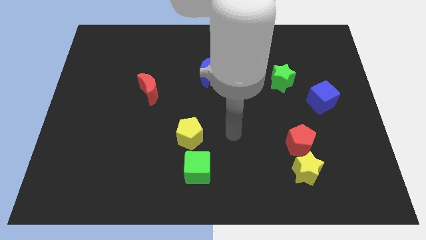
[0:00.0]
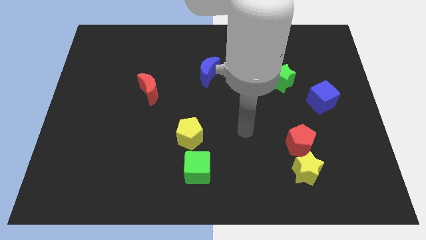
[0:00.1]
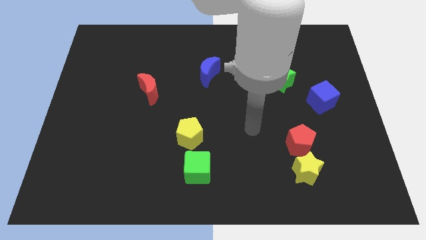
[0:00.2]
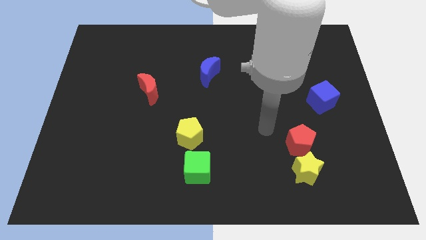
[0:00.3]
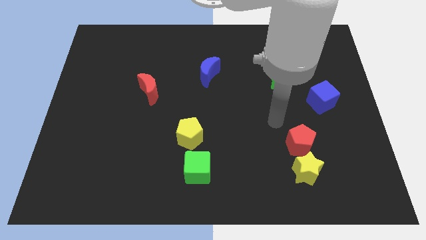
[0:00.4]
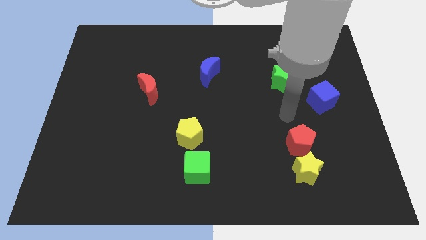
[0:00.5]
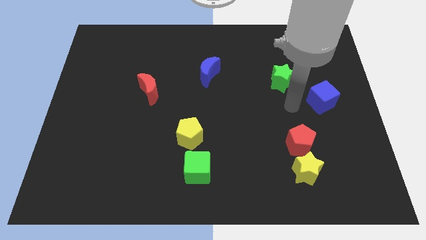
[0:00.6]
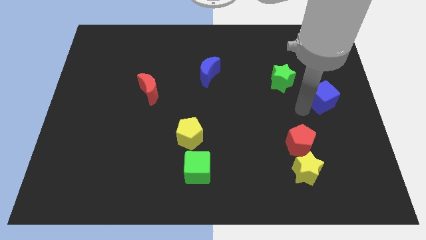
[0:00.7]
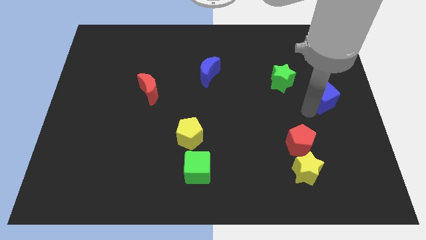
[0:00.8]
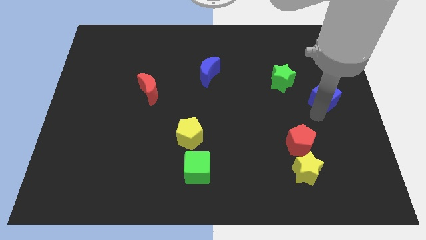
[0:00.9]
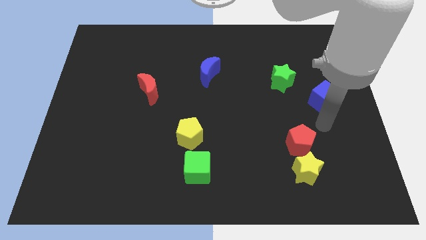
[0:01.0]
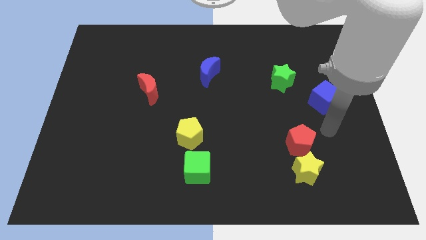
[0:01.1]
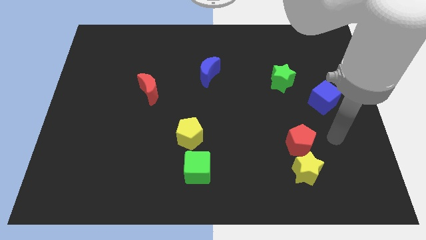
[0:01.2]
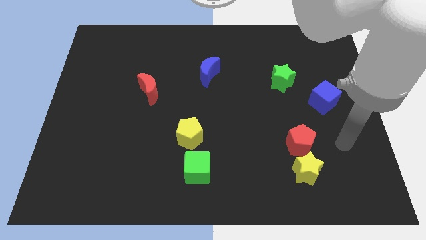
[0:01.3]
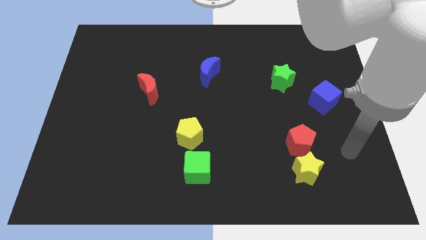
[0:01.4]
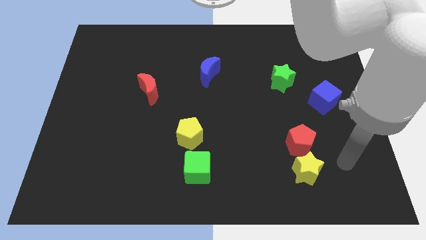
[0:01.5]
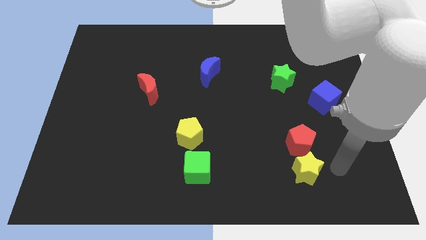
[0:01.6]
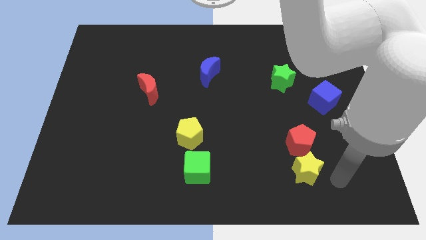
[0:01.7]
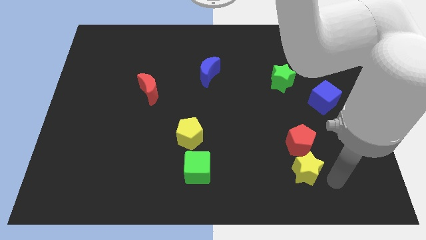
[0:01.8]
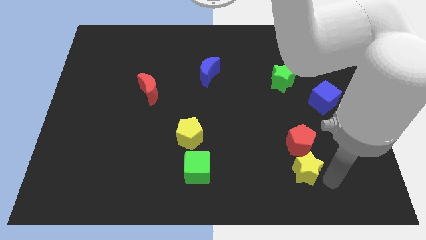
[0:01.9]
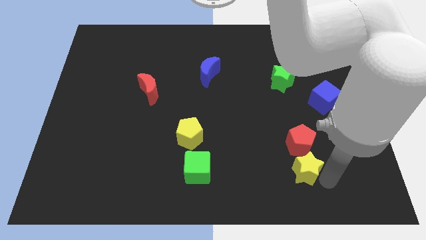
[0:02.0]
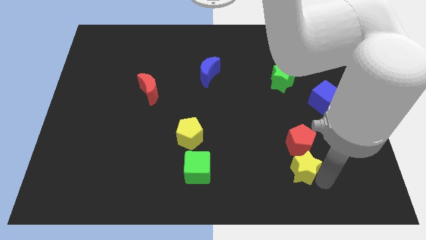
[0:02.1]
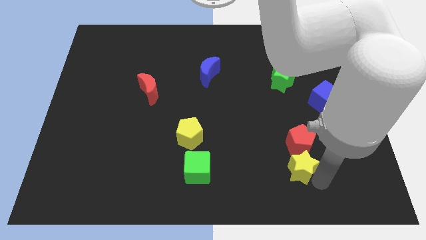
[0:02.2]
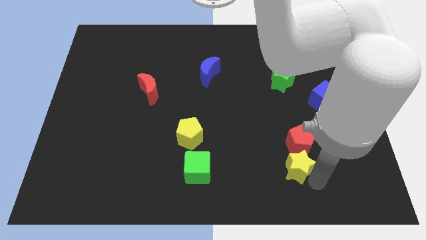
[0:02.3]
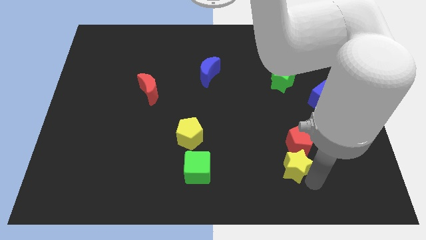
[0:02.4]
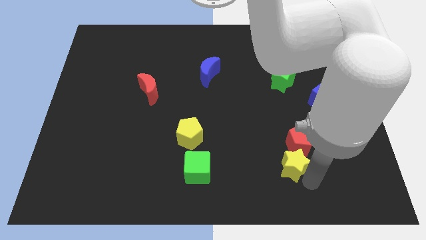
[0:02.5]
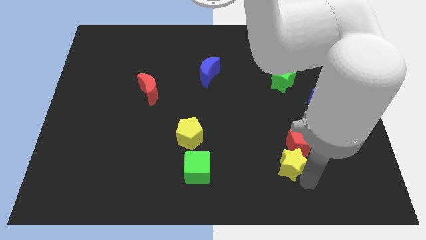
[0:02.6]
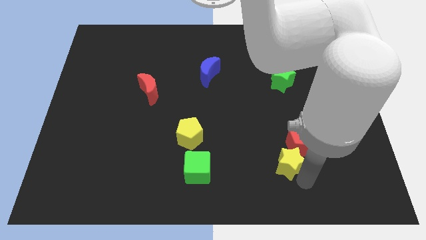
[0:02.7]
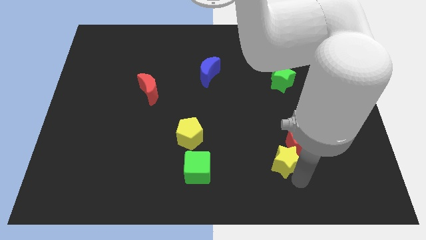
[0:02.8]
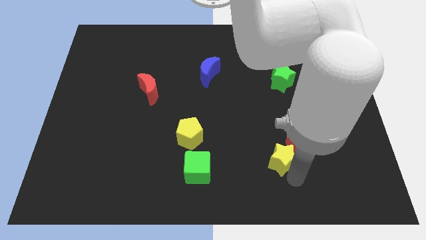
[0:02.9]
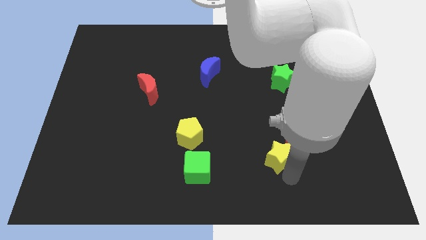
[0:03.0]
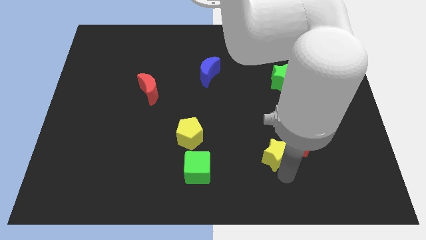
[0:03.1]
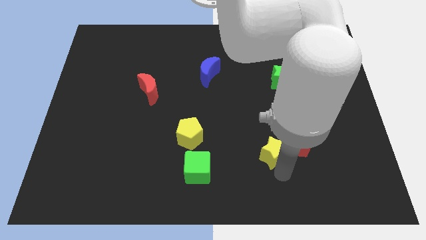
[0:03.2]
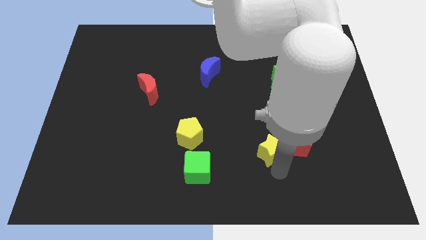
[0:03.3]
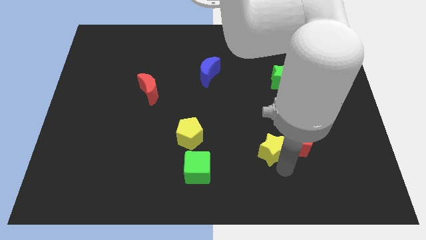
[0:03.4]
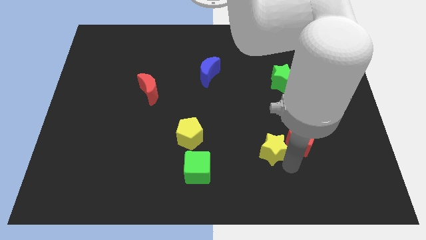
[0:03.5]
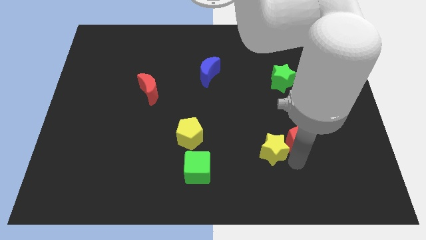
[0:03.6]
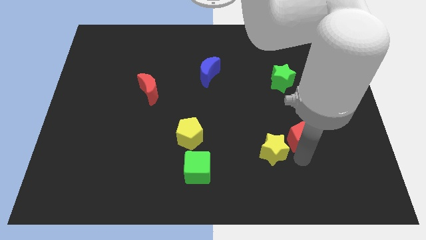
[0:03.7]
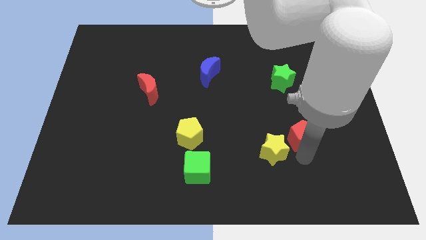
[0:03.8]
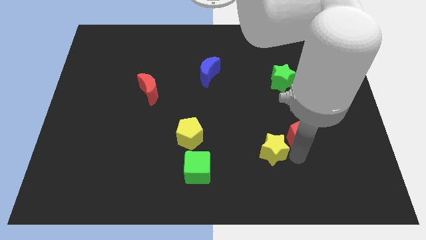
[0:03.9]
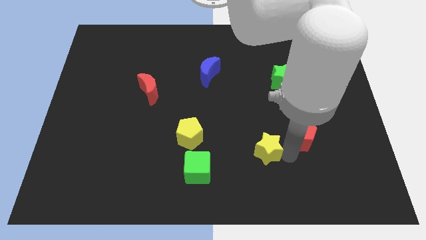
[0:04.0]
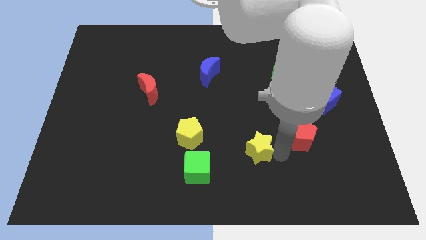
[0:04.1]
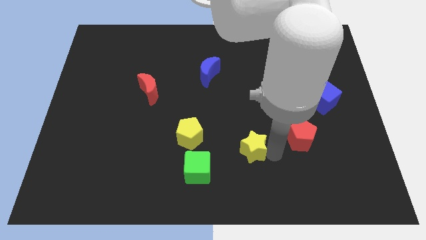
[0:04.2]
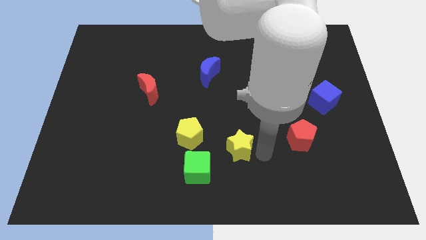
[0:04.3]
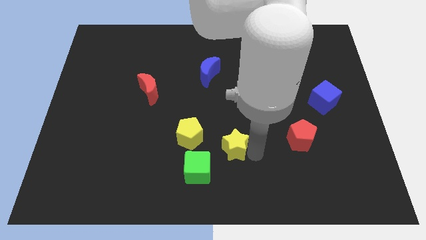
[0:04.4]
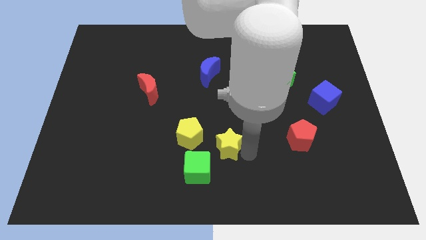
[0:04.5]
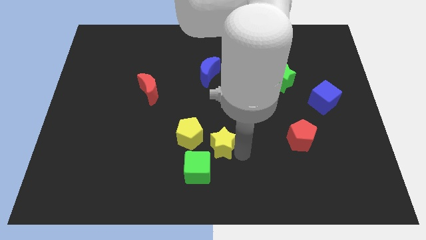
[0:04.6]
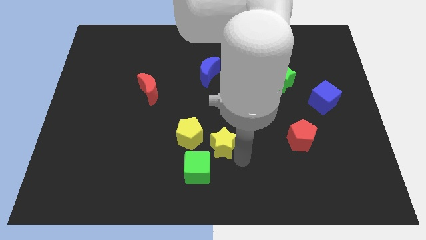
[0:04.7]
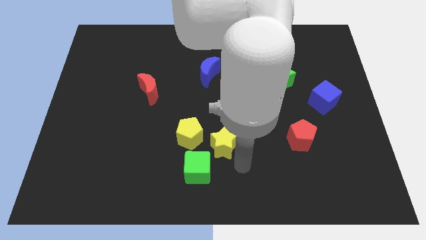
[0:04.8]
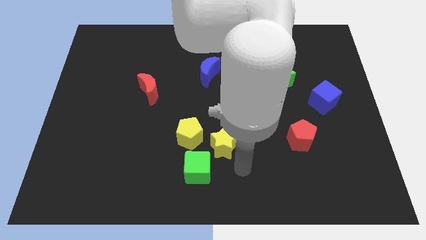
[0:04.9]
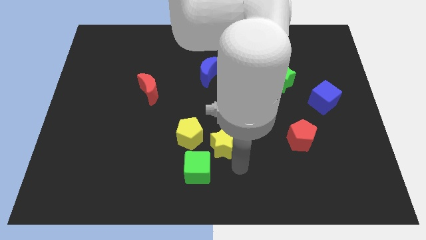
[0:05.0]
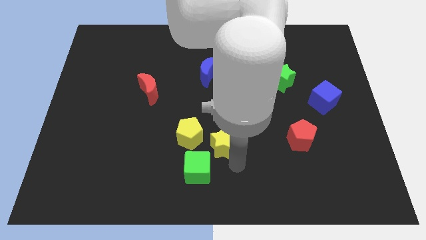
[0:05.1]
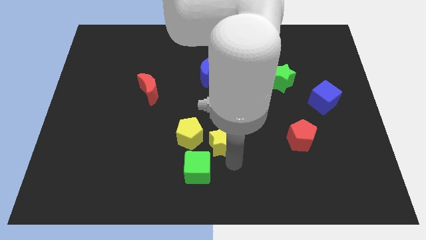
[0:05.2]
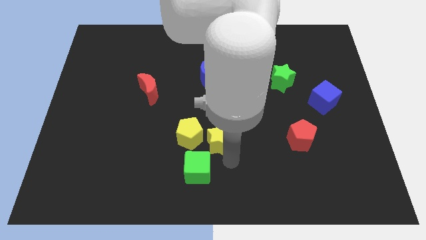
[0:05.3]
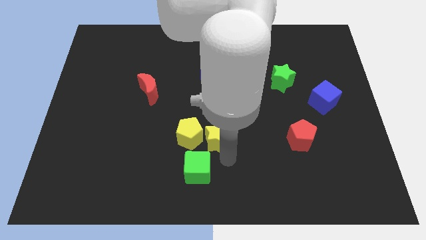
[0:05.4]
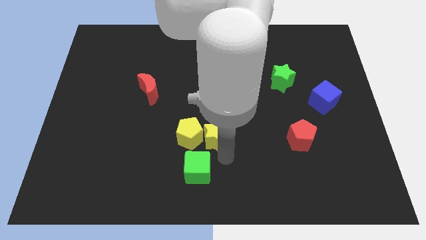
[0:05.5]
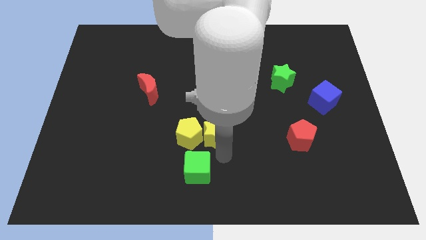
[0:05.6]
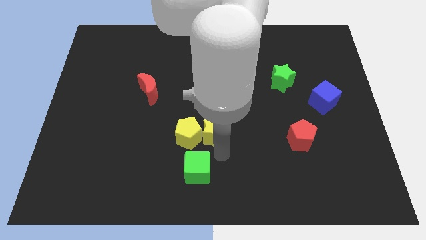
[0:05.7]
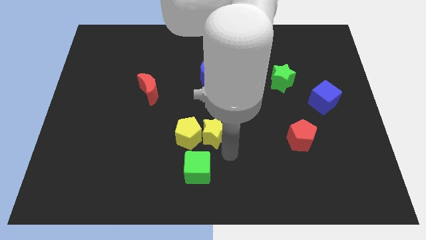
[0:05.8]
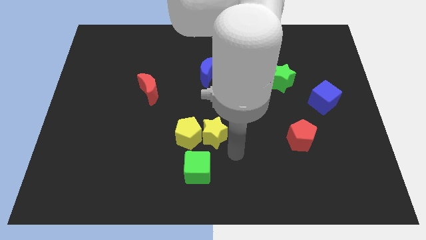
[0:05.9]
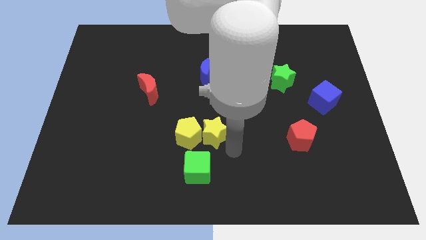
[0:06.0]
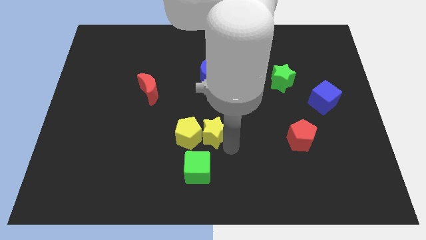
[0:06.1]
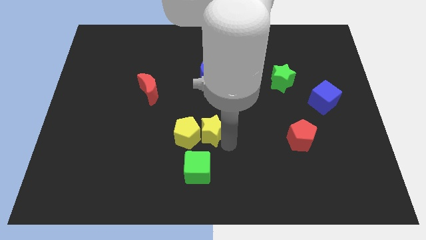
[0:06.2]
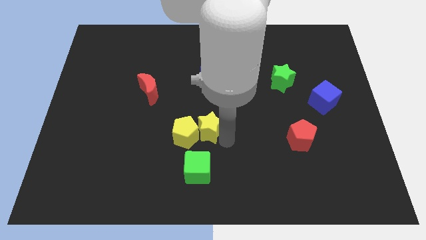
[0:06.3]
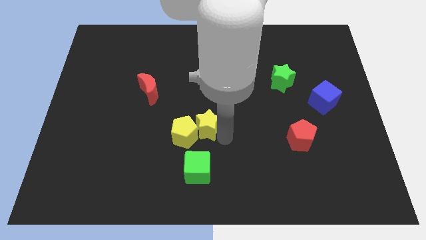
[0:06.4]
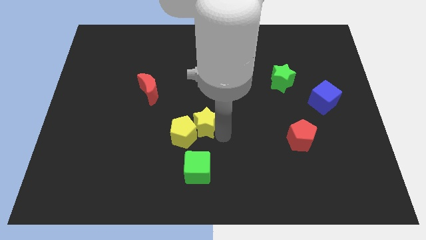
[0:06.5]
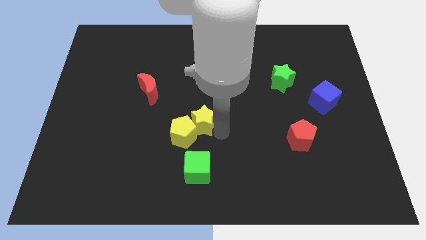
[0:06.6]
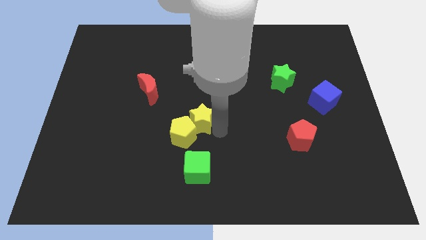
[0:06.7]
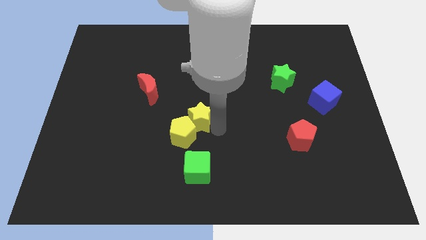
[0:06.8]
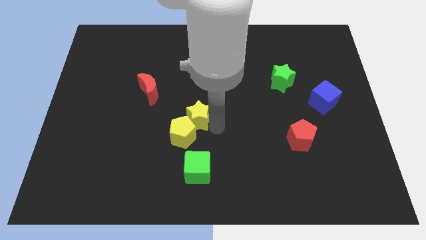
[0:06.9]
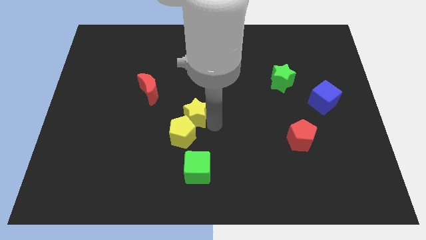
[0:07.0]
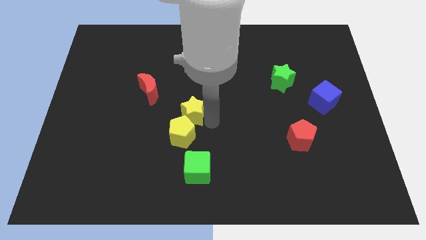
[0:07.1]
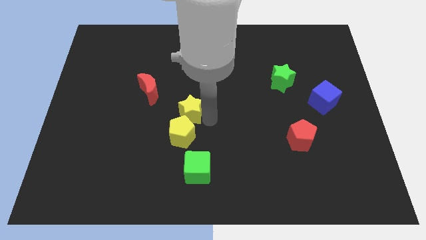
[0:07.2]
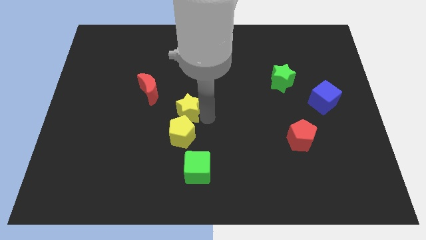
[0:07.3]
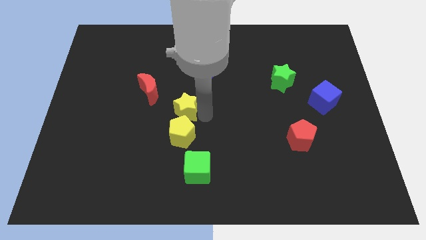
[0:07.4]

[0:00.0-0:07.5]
slide the yellow star to the top left of the yellow pentagon
